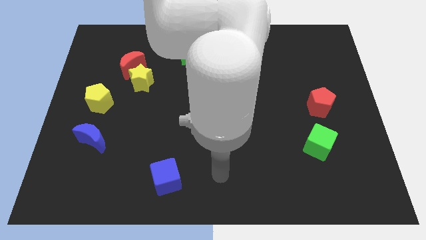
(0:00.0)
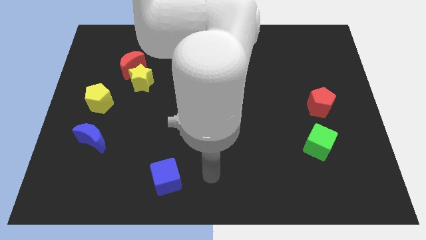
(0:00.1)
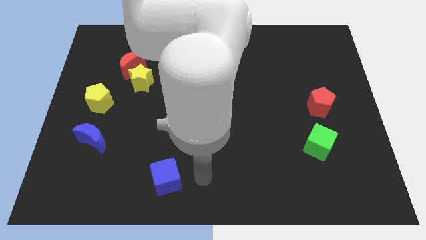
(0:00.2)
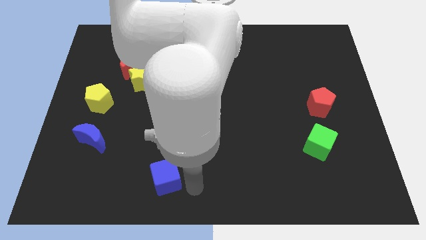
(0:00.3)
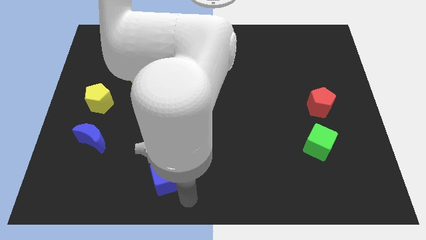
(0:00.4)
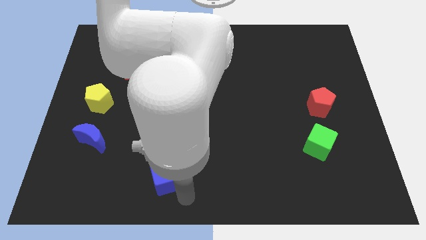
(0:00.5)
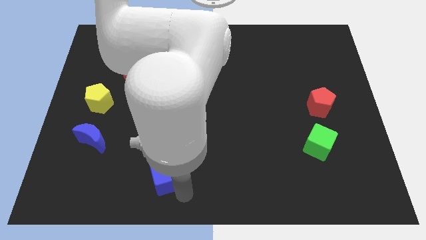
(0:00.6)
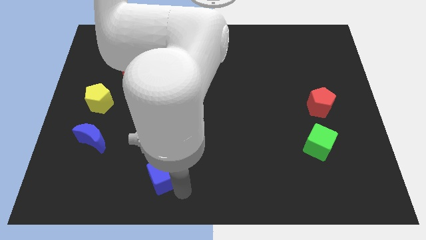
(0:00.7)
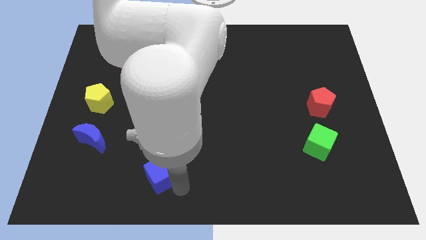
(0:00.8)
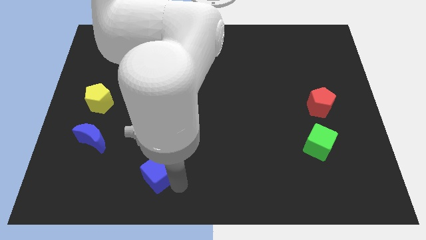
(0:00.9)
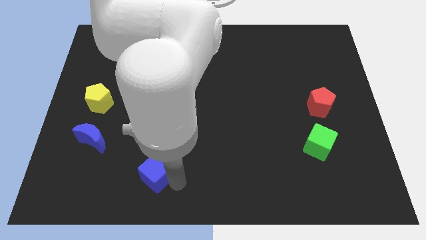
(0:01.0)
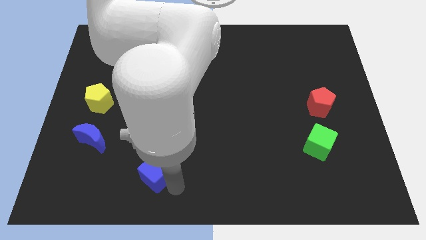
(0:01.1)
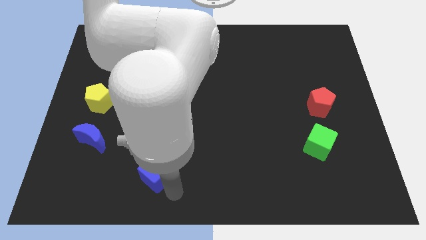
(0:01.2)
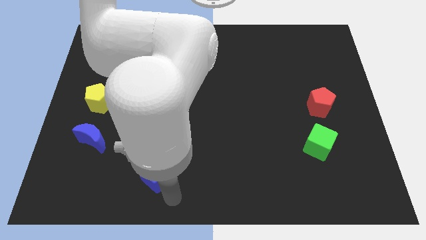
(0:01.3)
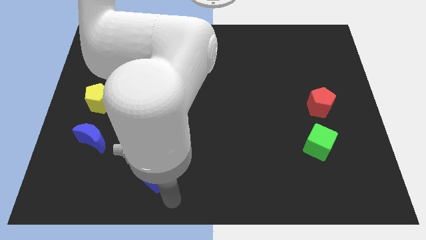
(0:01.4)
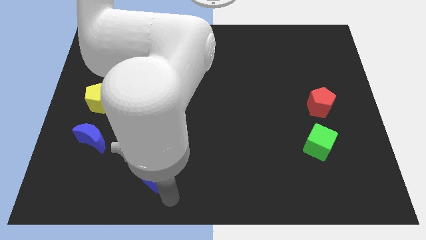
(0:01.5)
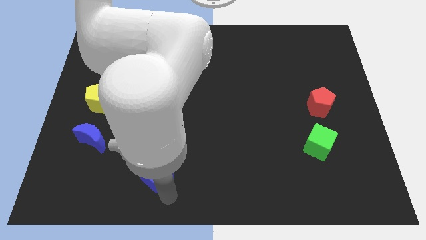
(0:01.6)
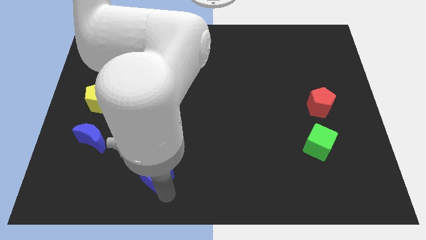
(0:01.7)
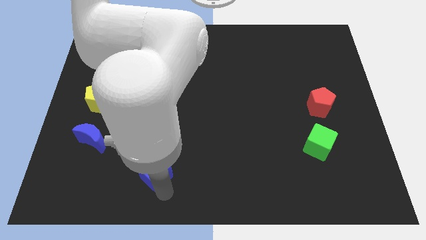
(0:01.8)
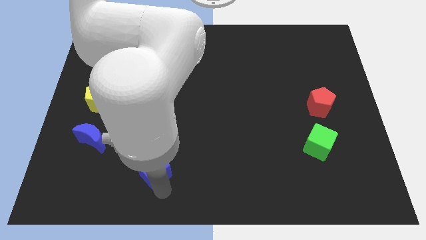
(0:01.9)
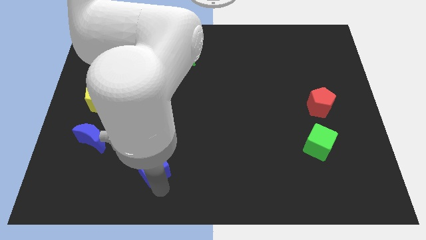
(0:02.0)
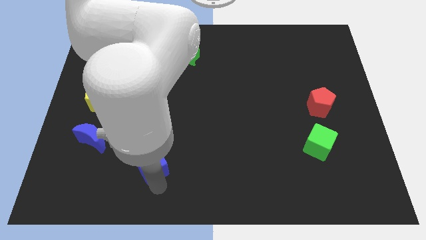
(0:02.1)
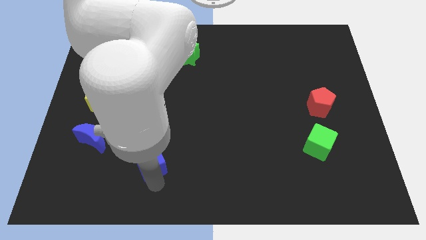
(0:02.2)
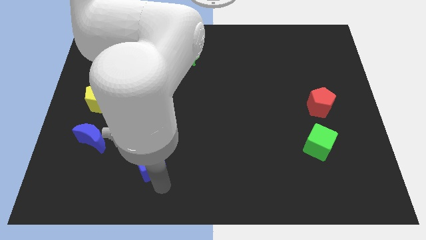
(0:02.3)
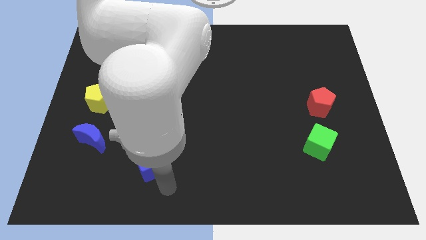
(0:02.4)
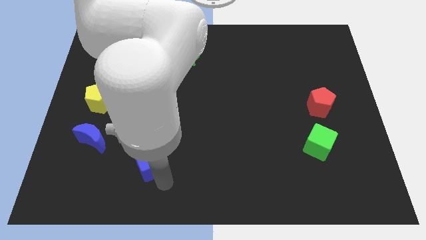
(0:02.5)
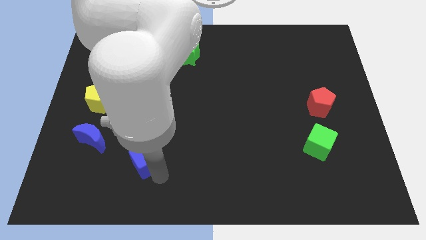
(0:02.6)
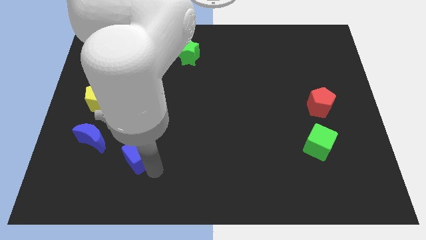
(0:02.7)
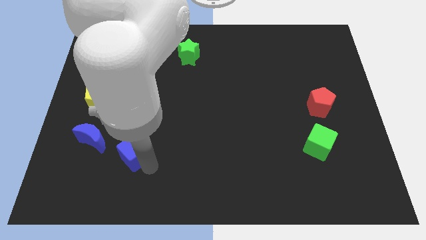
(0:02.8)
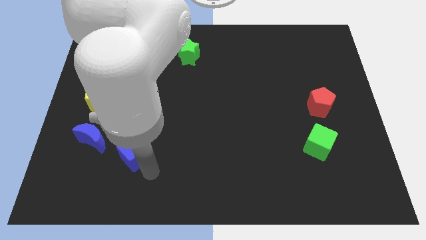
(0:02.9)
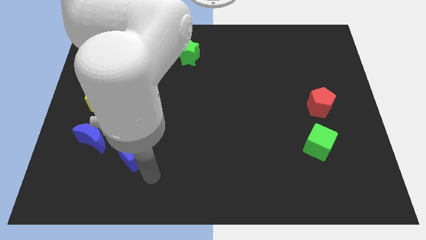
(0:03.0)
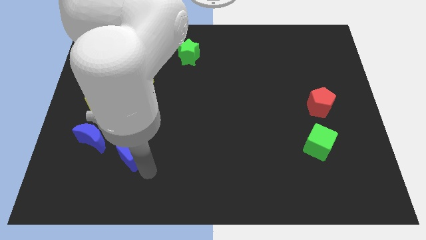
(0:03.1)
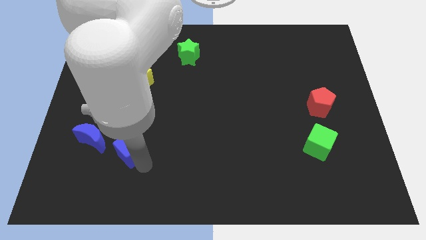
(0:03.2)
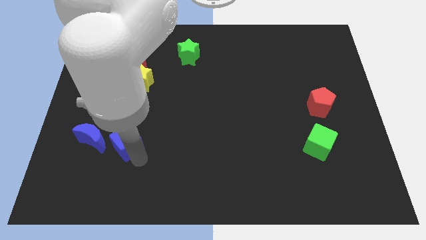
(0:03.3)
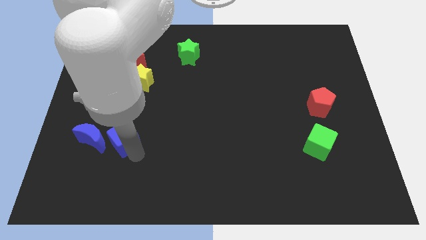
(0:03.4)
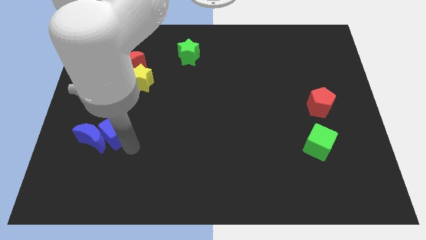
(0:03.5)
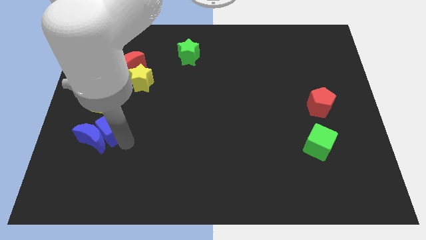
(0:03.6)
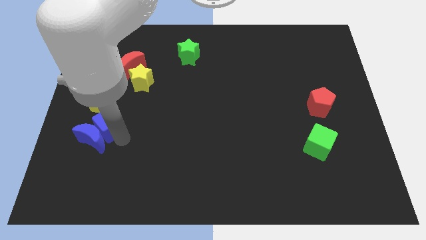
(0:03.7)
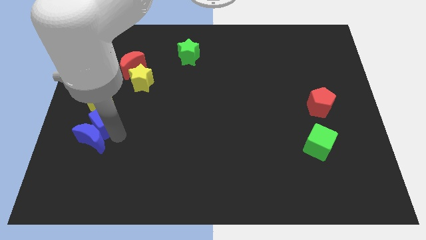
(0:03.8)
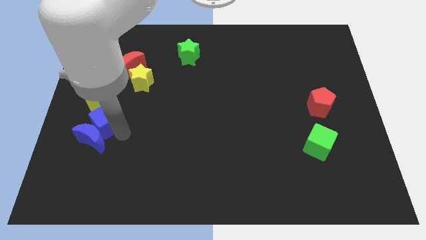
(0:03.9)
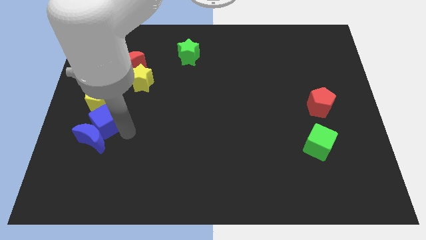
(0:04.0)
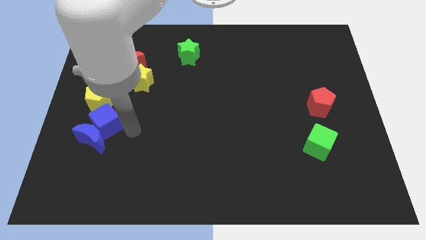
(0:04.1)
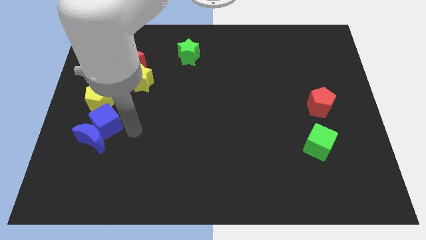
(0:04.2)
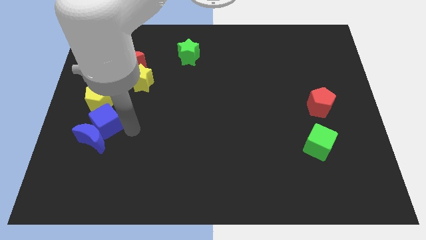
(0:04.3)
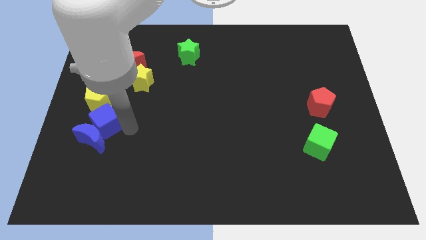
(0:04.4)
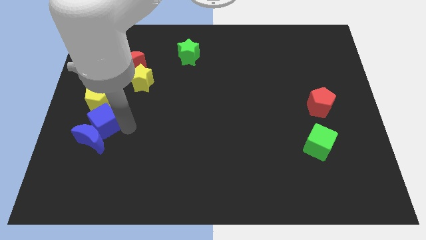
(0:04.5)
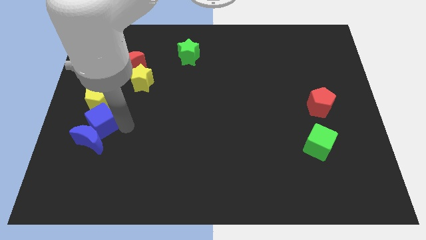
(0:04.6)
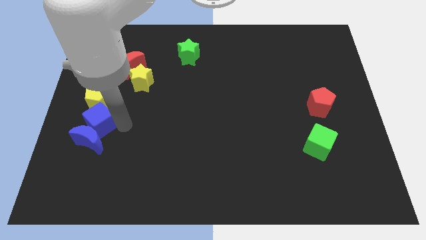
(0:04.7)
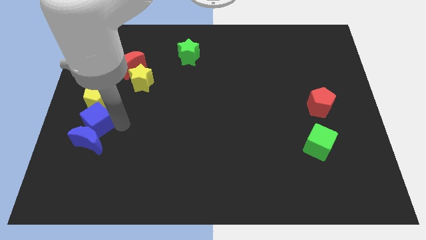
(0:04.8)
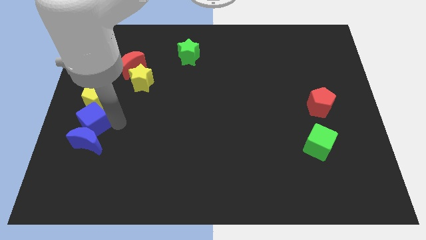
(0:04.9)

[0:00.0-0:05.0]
move the blue cube to the center left

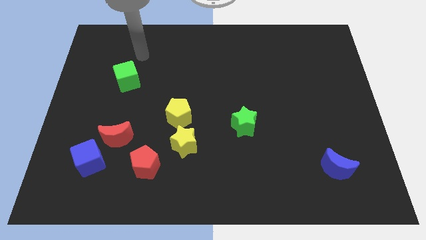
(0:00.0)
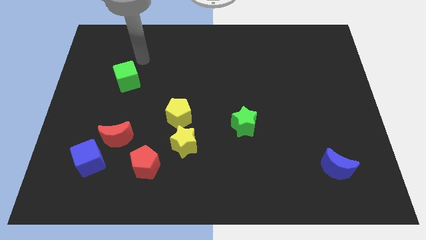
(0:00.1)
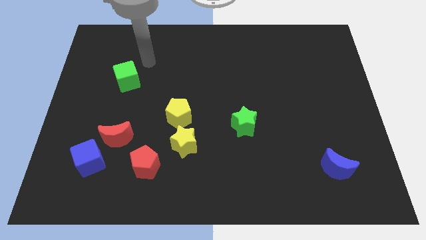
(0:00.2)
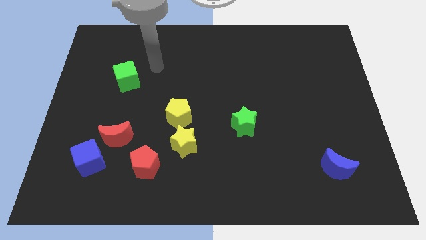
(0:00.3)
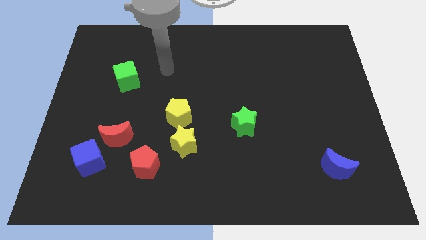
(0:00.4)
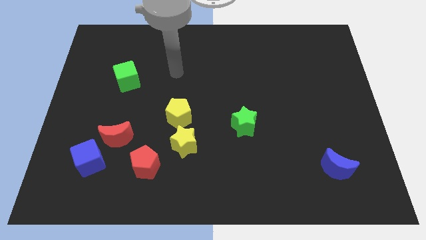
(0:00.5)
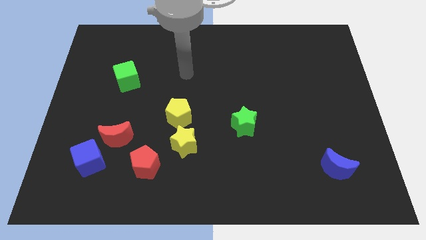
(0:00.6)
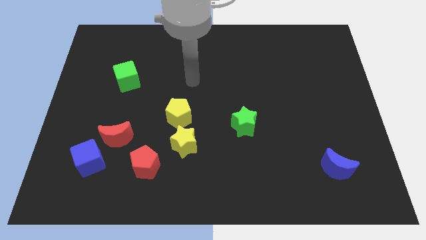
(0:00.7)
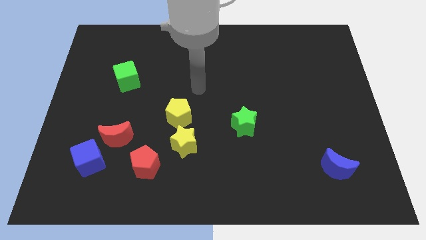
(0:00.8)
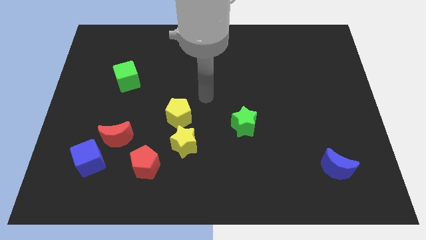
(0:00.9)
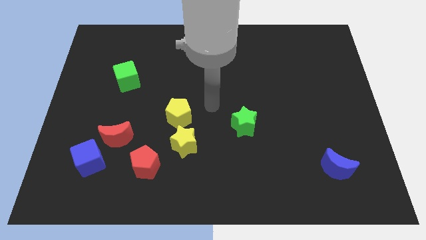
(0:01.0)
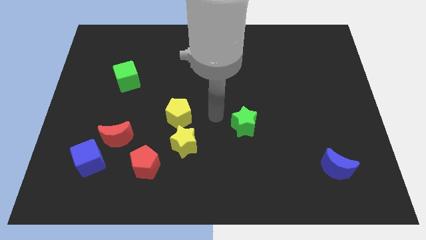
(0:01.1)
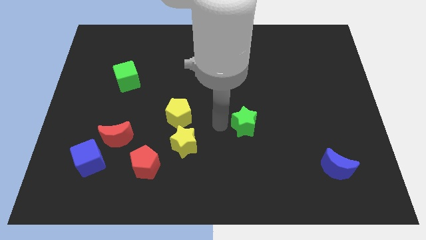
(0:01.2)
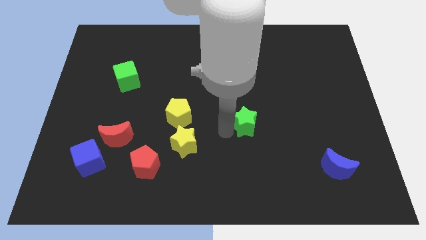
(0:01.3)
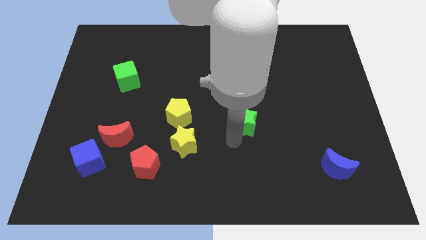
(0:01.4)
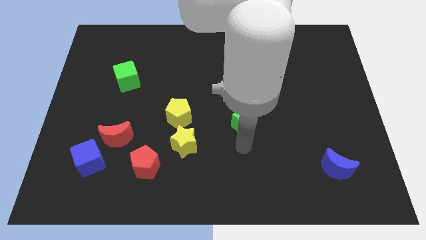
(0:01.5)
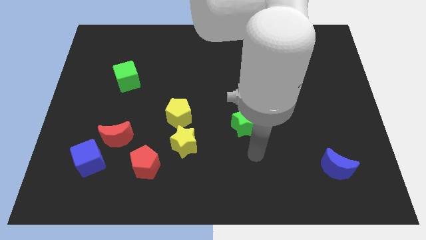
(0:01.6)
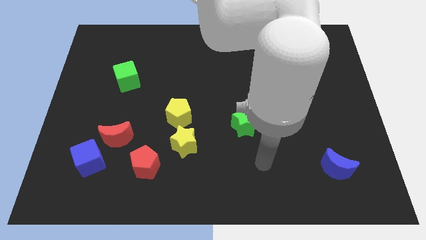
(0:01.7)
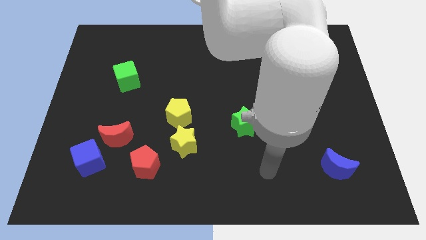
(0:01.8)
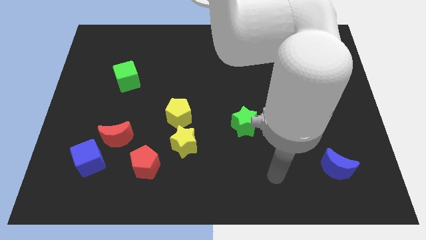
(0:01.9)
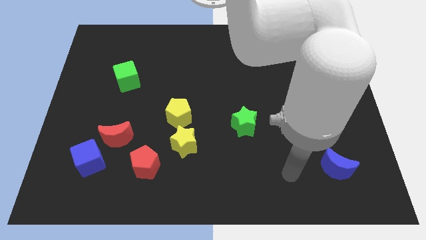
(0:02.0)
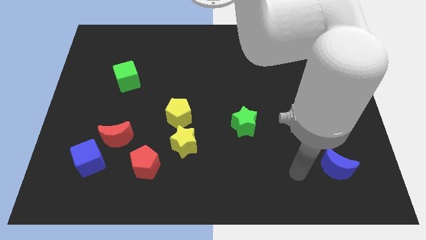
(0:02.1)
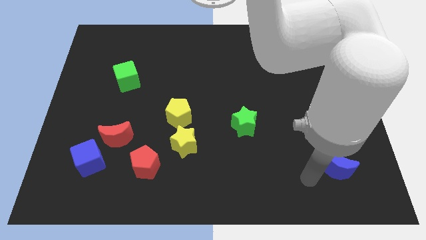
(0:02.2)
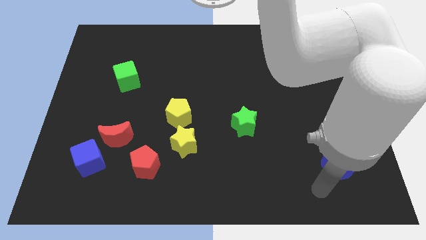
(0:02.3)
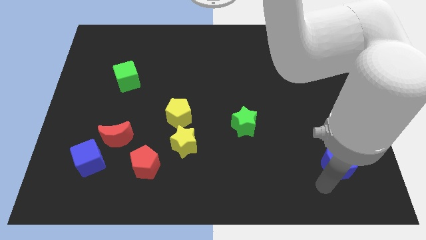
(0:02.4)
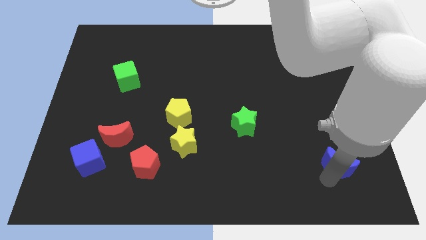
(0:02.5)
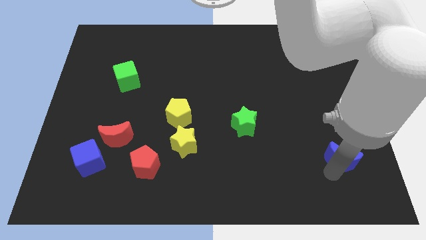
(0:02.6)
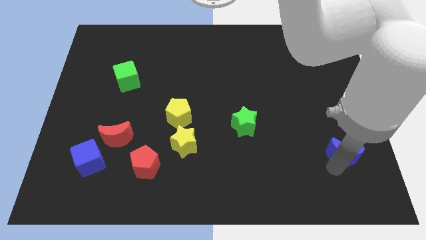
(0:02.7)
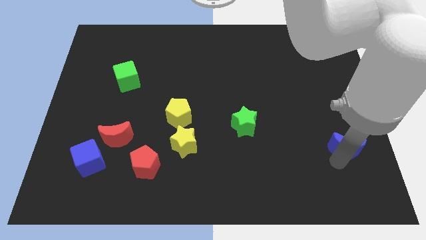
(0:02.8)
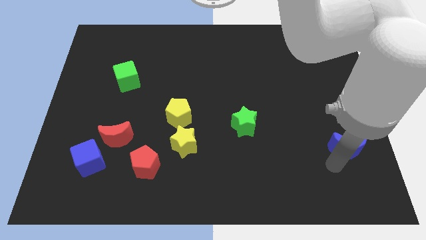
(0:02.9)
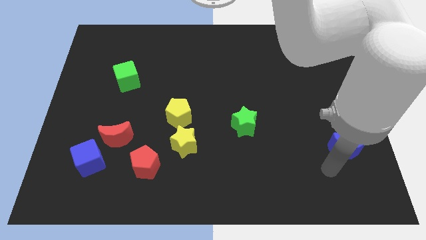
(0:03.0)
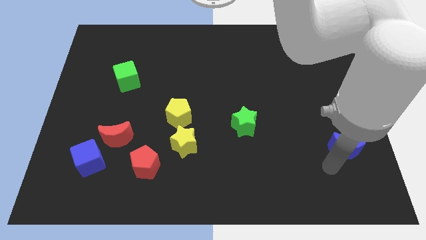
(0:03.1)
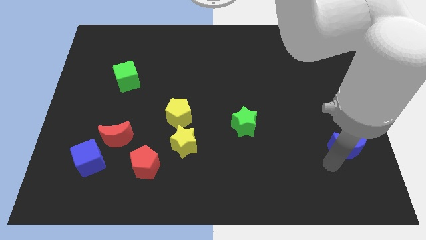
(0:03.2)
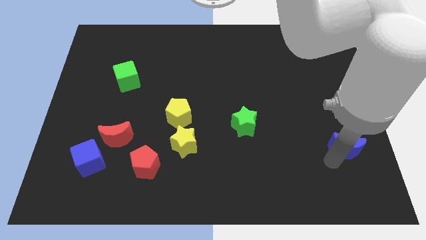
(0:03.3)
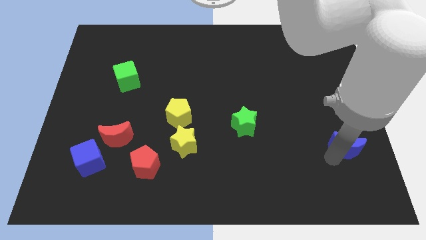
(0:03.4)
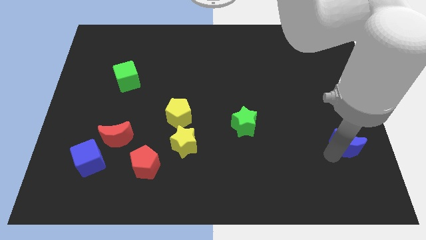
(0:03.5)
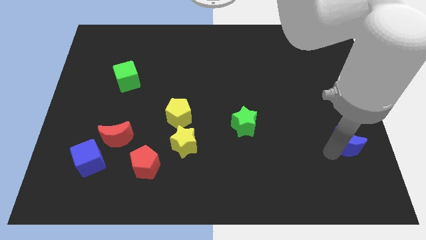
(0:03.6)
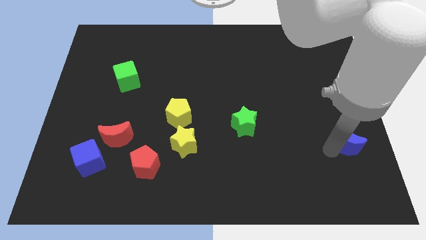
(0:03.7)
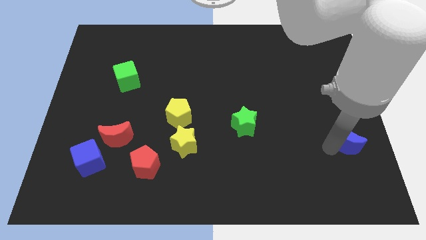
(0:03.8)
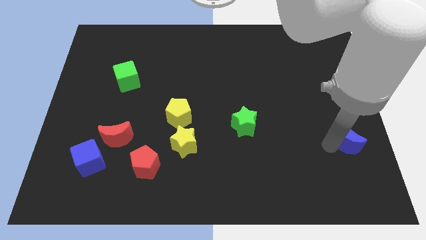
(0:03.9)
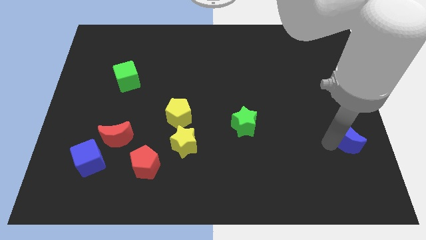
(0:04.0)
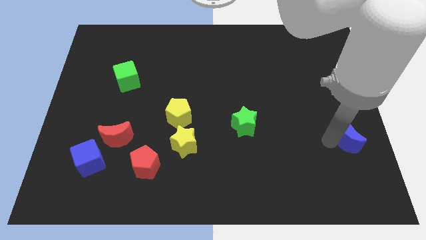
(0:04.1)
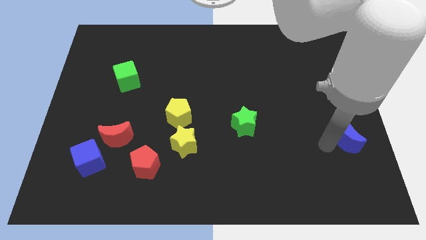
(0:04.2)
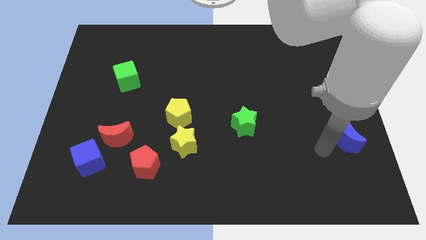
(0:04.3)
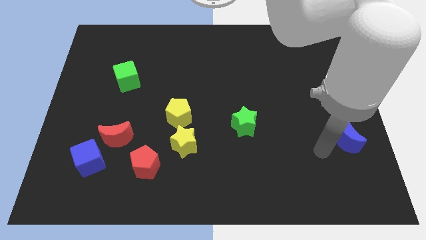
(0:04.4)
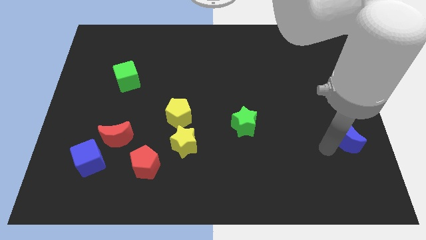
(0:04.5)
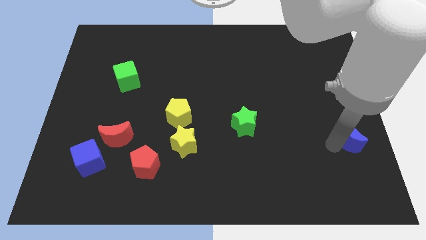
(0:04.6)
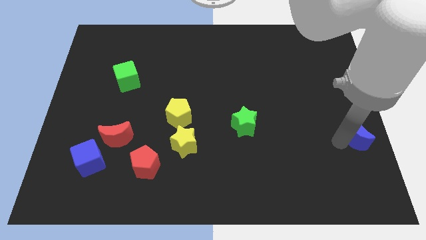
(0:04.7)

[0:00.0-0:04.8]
slide the blue moon to the right side of the board
